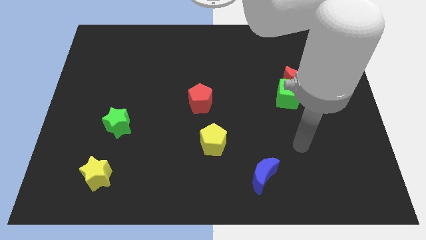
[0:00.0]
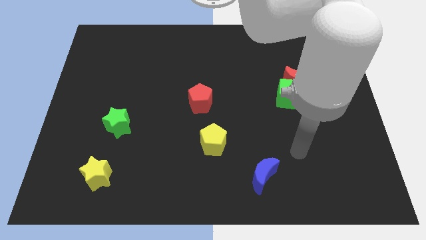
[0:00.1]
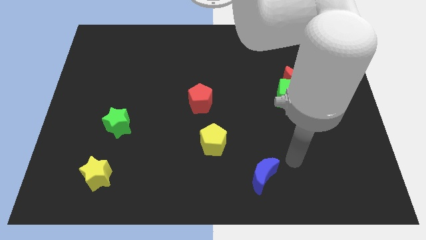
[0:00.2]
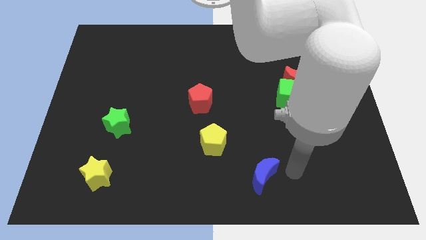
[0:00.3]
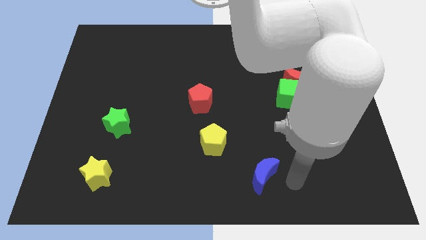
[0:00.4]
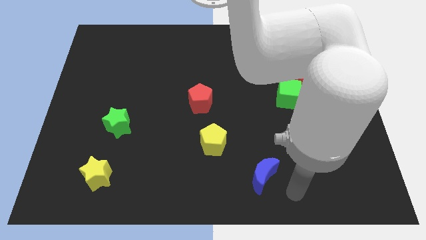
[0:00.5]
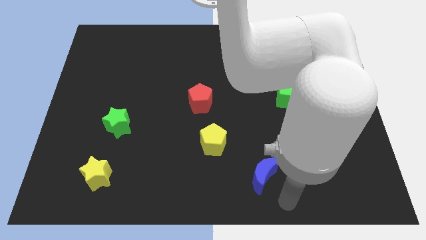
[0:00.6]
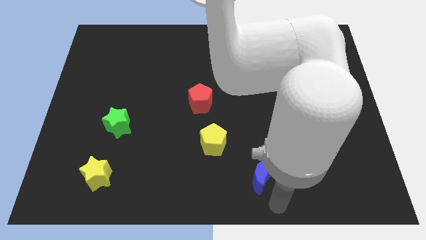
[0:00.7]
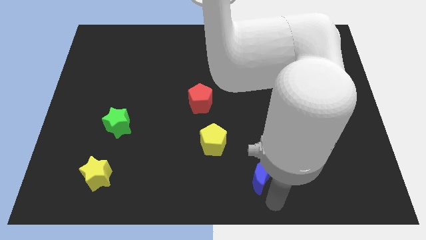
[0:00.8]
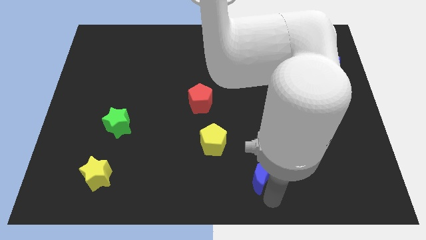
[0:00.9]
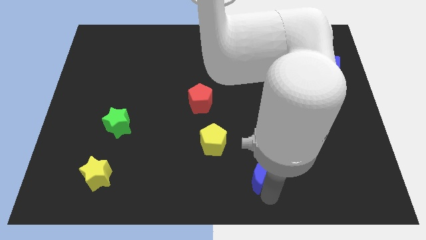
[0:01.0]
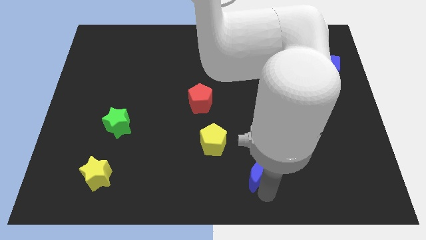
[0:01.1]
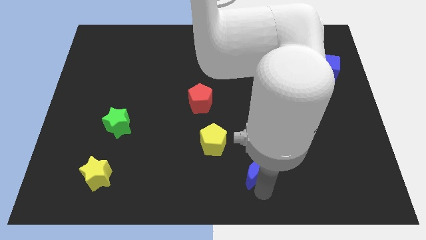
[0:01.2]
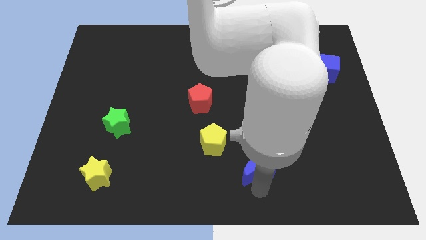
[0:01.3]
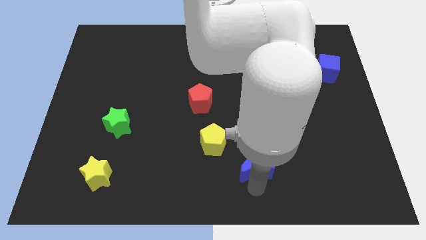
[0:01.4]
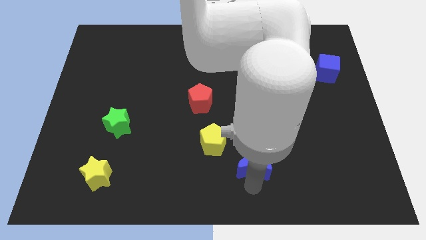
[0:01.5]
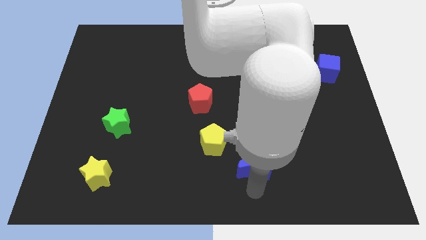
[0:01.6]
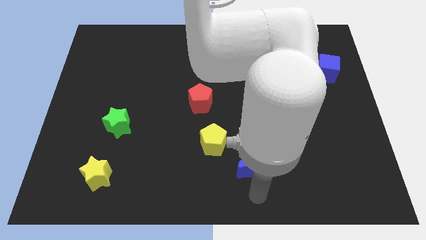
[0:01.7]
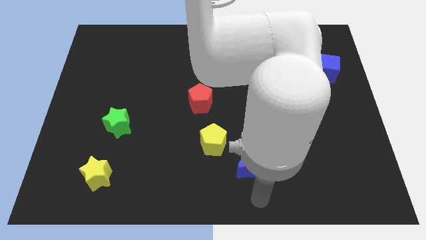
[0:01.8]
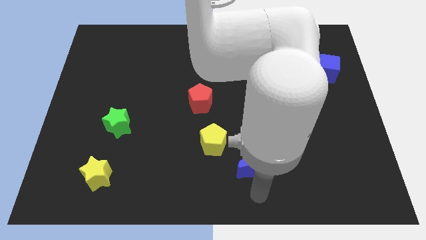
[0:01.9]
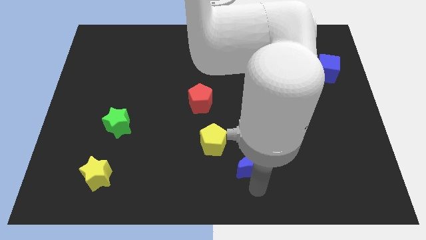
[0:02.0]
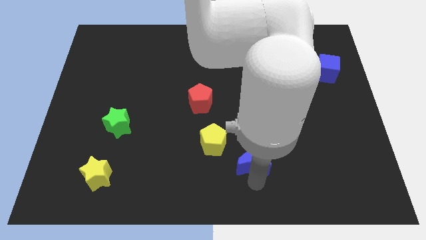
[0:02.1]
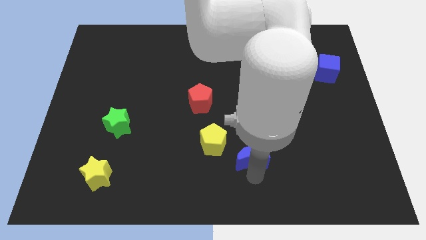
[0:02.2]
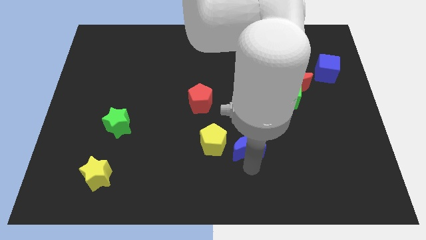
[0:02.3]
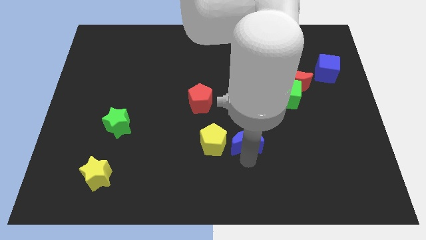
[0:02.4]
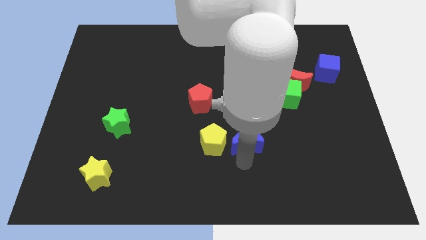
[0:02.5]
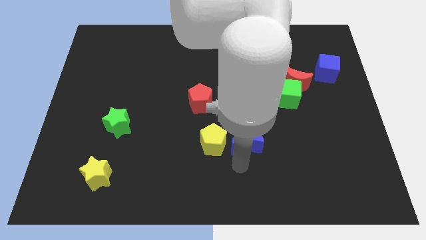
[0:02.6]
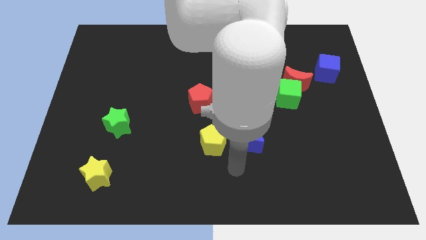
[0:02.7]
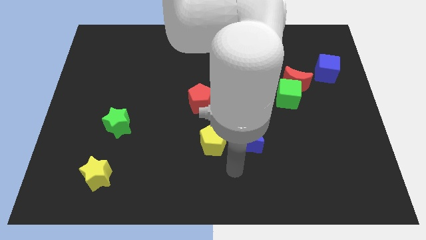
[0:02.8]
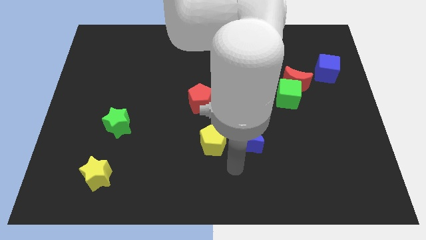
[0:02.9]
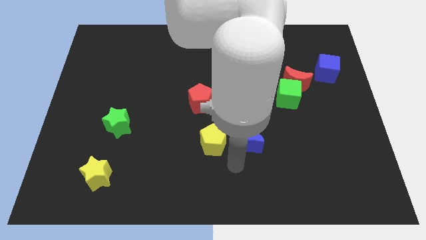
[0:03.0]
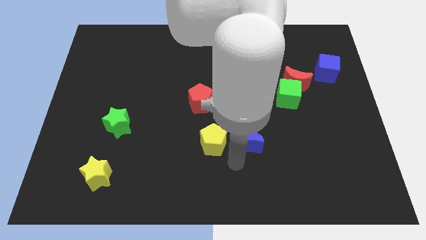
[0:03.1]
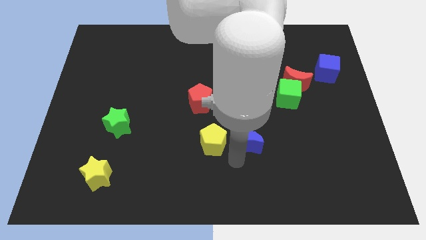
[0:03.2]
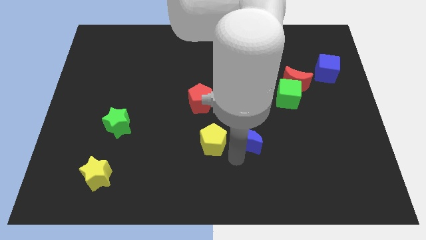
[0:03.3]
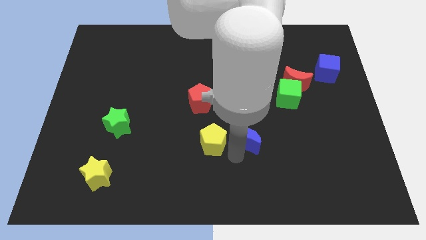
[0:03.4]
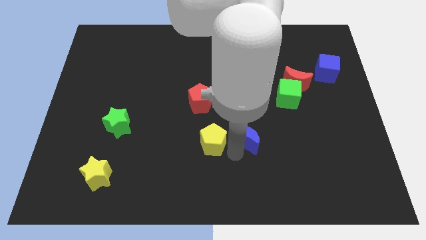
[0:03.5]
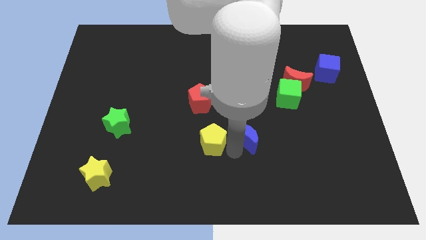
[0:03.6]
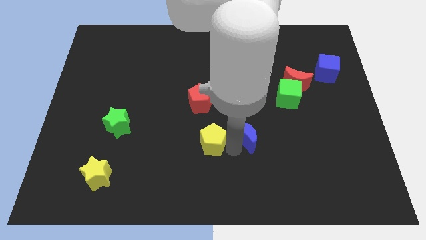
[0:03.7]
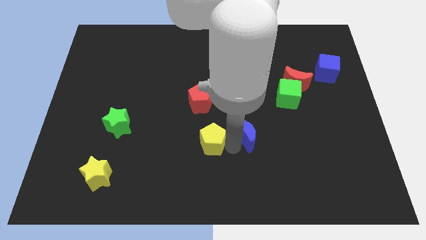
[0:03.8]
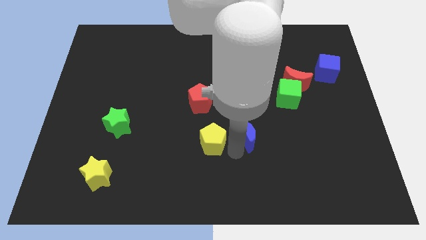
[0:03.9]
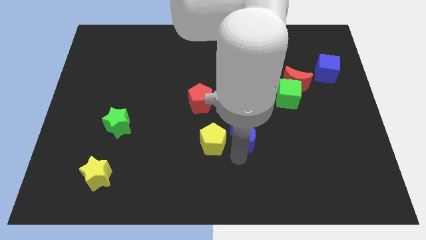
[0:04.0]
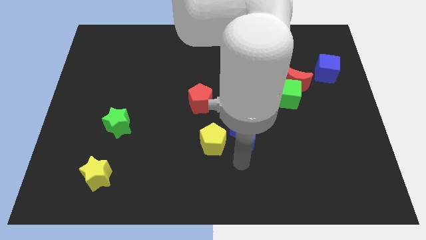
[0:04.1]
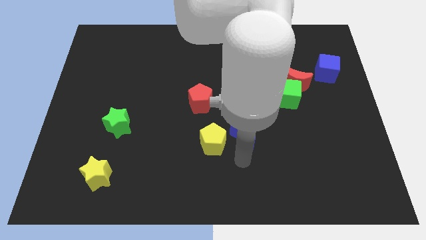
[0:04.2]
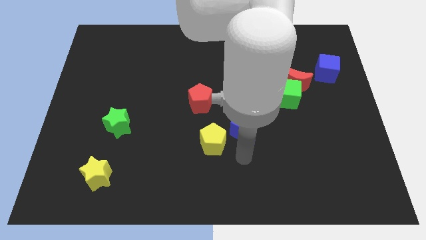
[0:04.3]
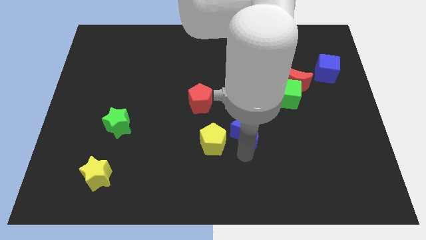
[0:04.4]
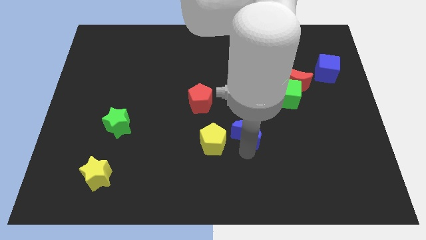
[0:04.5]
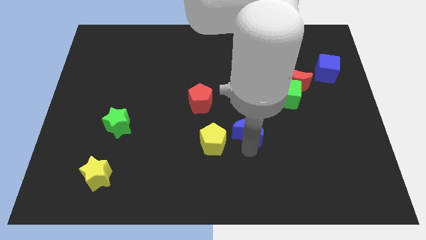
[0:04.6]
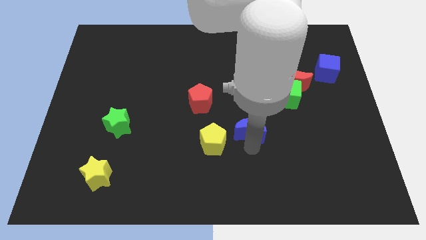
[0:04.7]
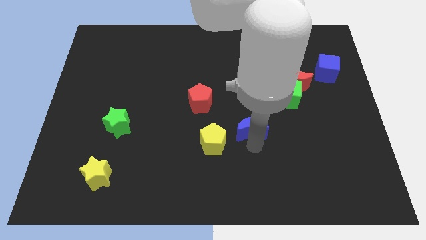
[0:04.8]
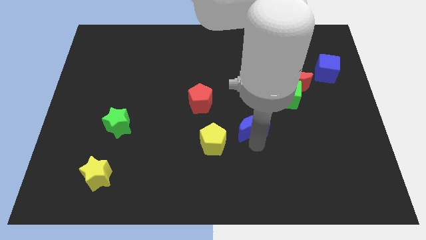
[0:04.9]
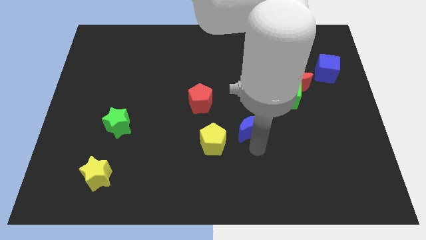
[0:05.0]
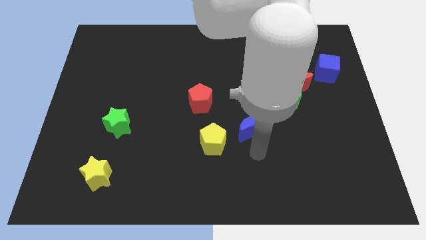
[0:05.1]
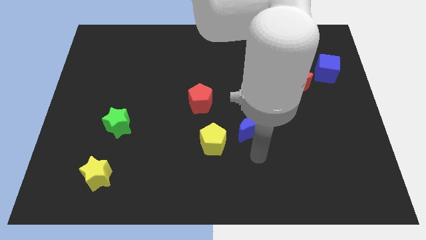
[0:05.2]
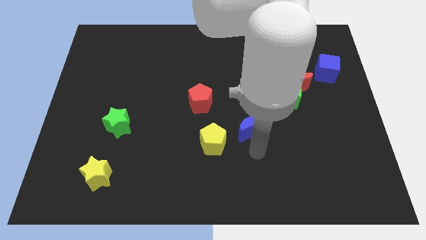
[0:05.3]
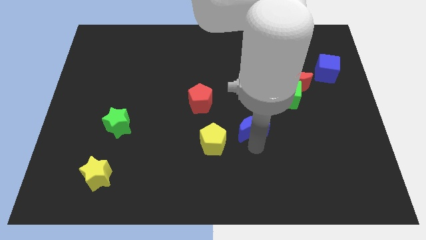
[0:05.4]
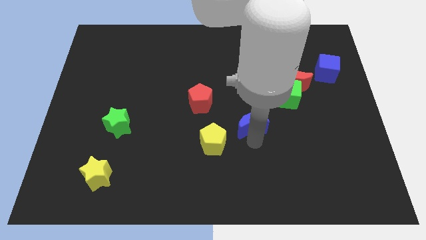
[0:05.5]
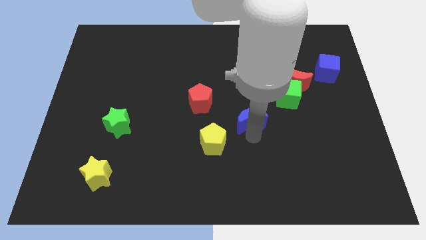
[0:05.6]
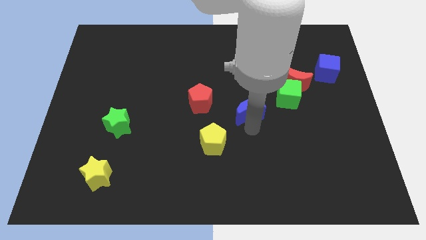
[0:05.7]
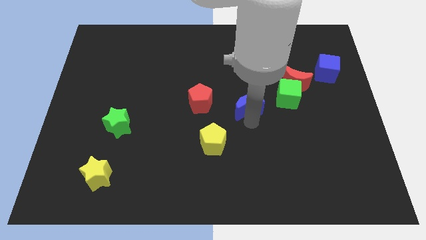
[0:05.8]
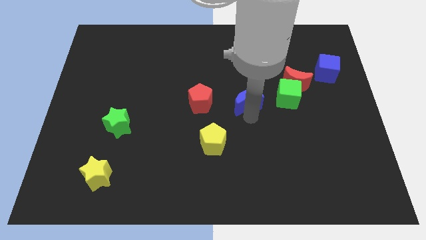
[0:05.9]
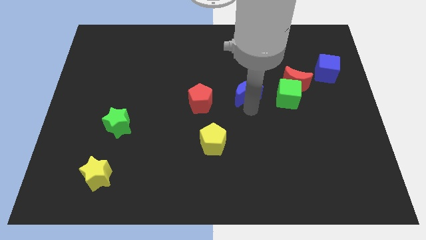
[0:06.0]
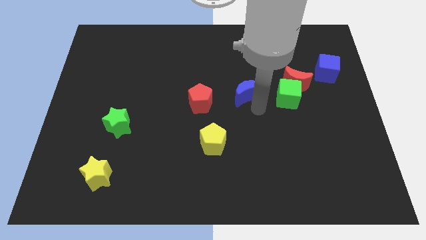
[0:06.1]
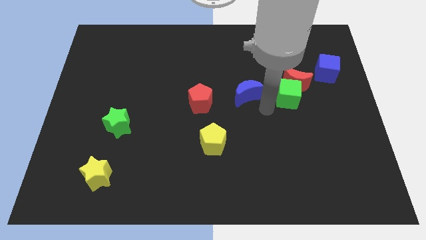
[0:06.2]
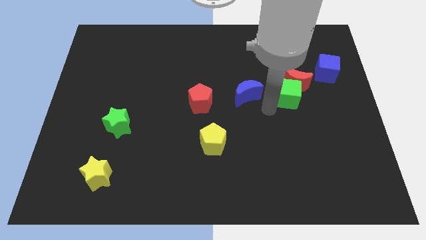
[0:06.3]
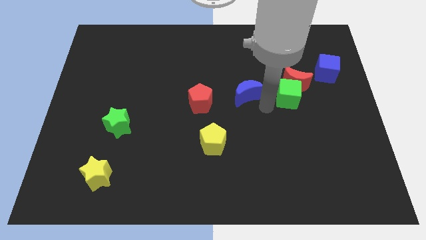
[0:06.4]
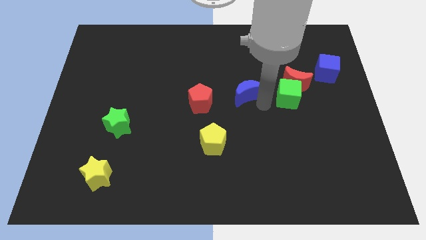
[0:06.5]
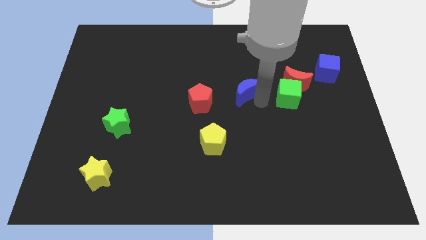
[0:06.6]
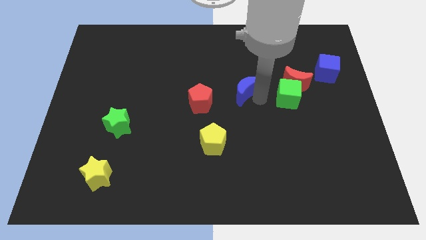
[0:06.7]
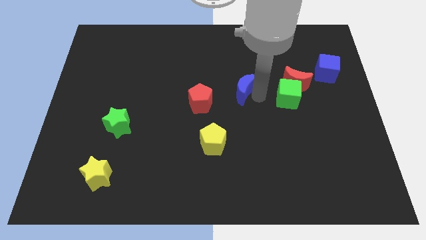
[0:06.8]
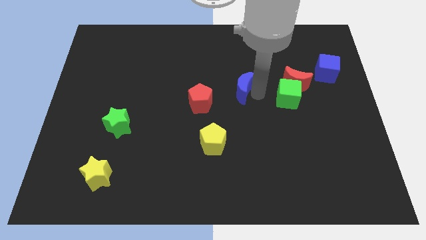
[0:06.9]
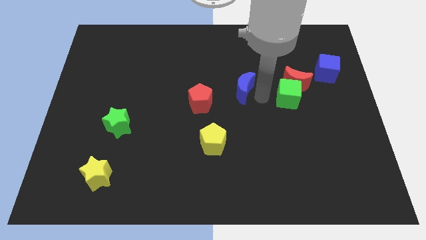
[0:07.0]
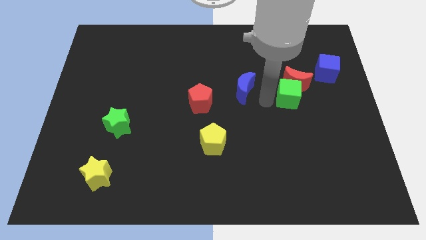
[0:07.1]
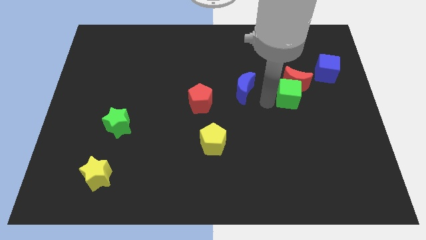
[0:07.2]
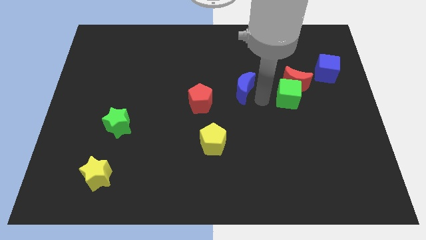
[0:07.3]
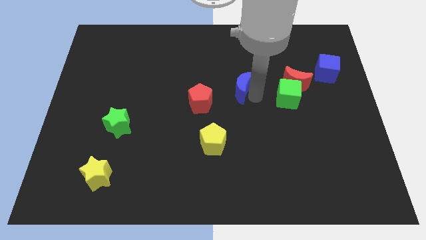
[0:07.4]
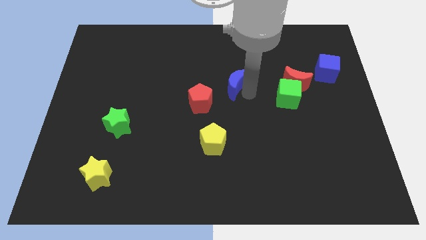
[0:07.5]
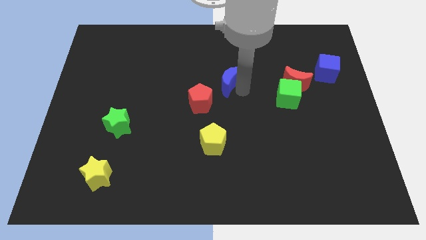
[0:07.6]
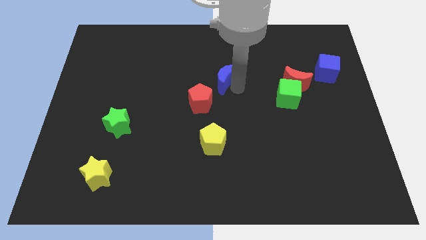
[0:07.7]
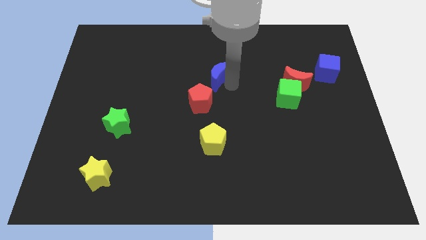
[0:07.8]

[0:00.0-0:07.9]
push the blue moon above the red pentagon
